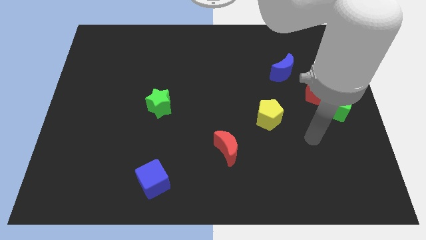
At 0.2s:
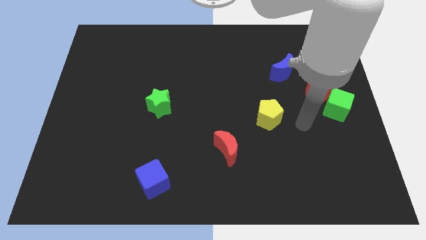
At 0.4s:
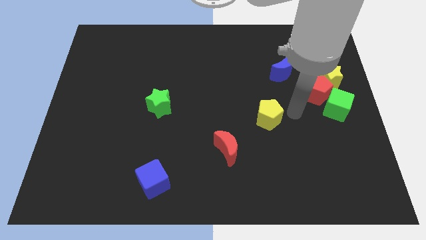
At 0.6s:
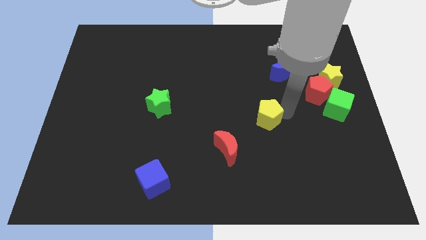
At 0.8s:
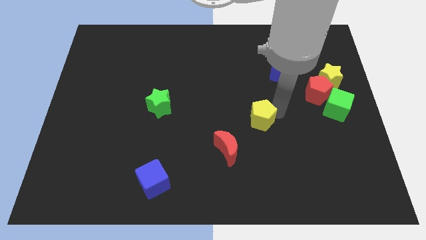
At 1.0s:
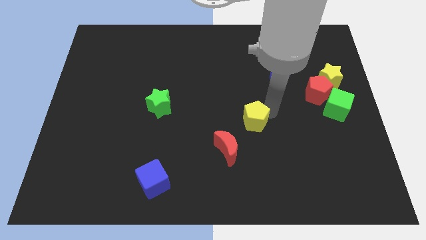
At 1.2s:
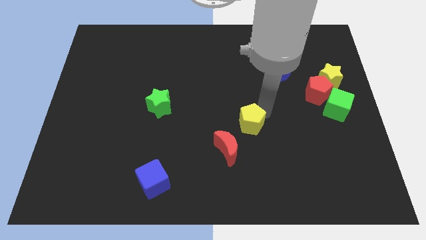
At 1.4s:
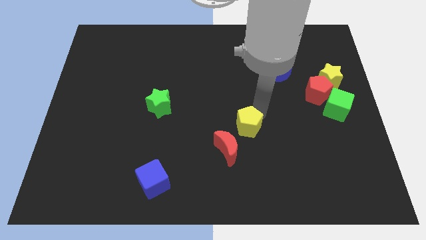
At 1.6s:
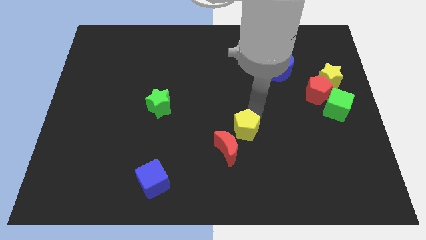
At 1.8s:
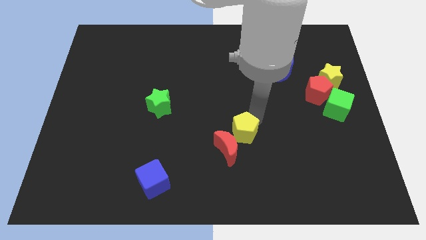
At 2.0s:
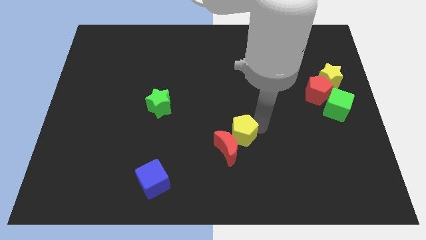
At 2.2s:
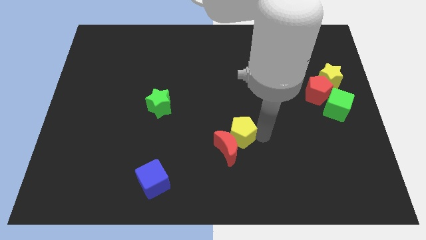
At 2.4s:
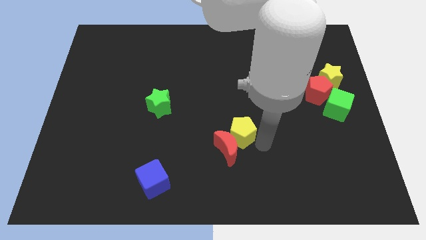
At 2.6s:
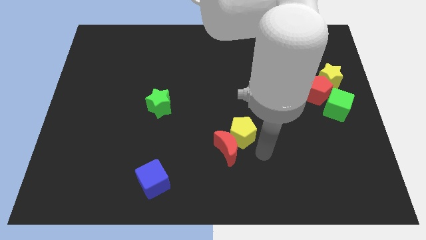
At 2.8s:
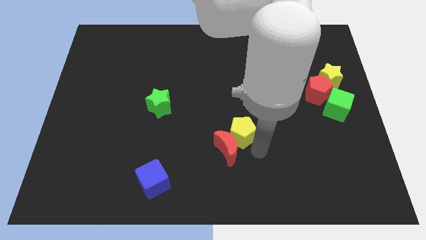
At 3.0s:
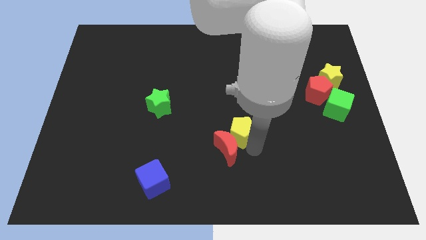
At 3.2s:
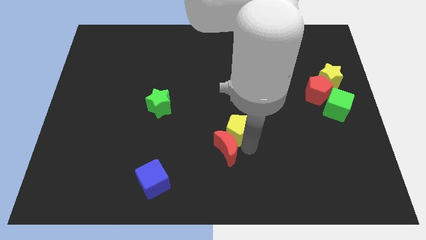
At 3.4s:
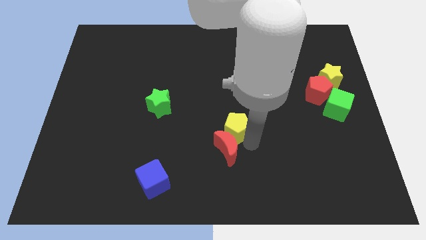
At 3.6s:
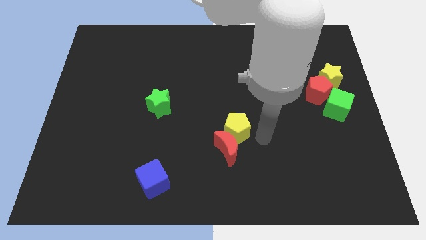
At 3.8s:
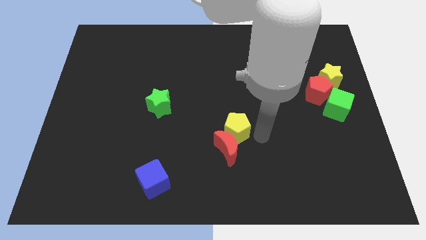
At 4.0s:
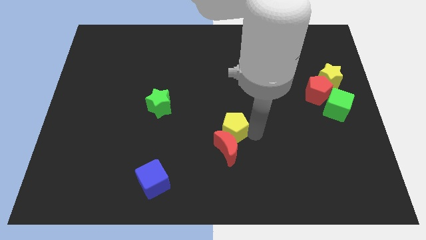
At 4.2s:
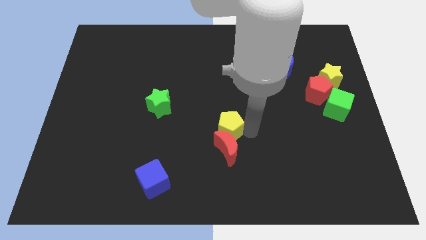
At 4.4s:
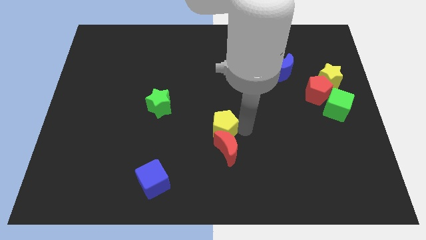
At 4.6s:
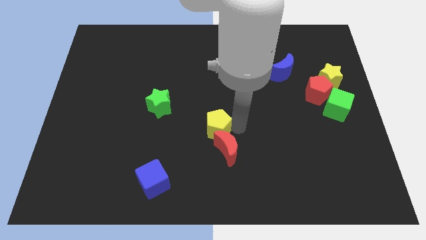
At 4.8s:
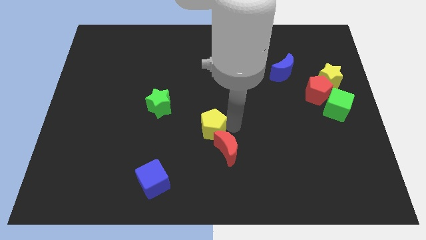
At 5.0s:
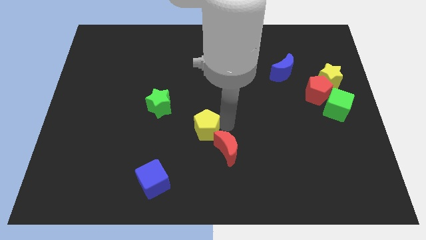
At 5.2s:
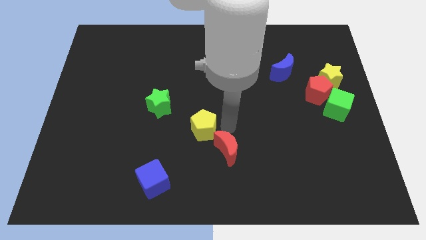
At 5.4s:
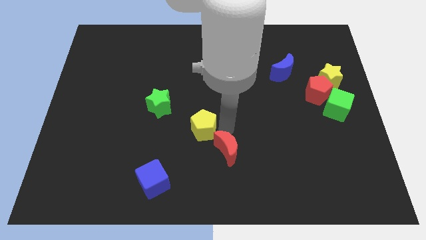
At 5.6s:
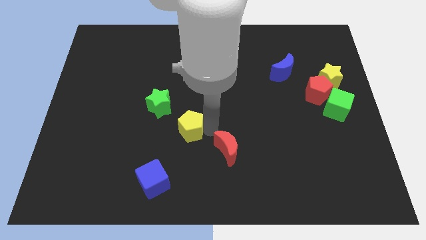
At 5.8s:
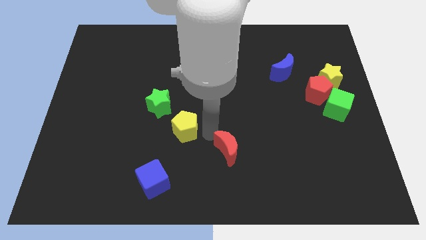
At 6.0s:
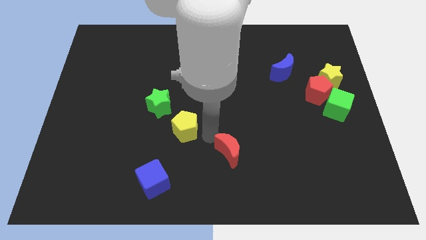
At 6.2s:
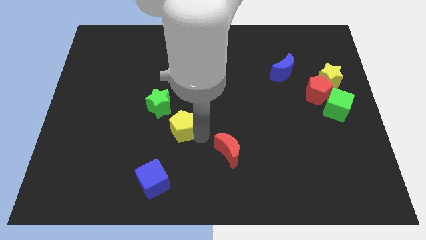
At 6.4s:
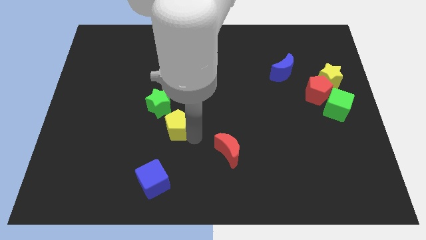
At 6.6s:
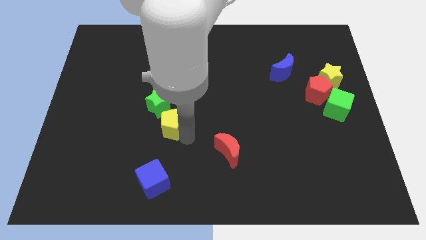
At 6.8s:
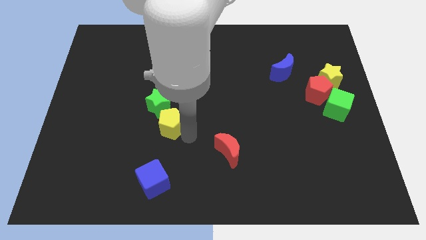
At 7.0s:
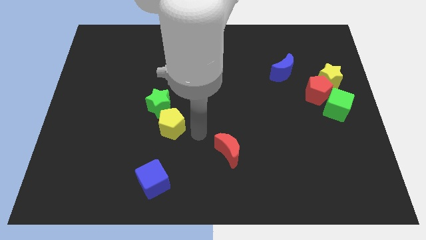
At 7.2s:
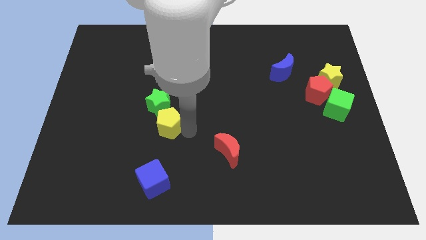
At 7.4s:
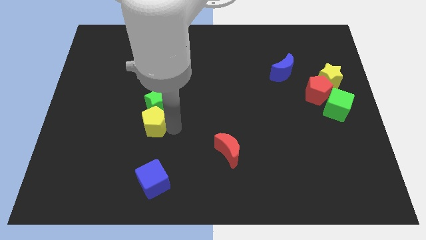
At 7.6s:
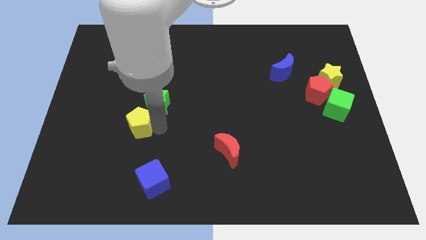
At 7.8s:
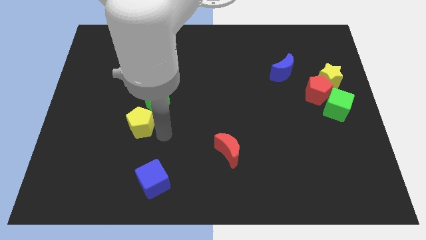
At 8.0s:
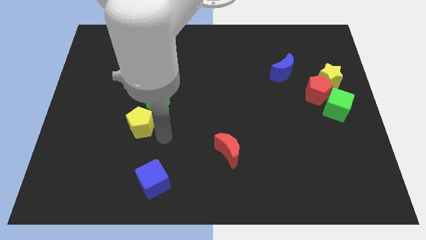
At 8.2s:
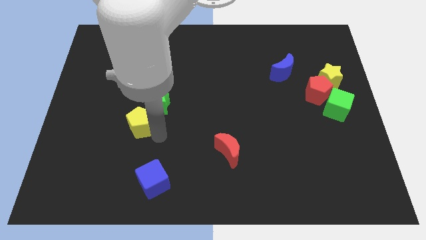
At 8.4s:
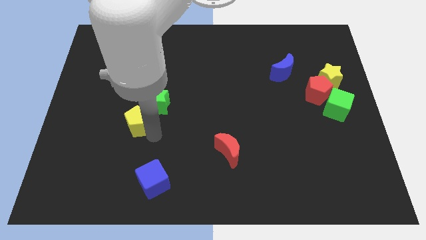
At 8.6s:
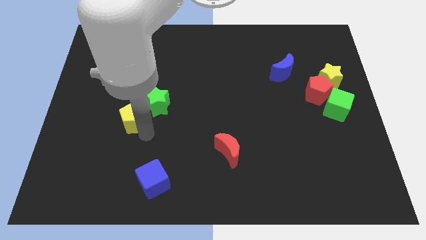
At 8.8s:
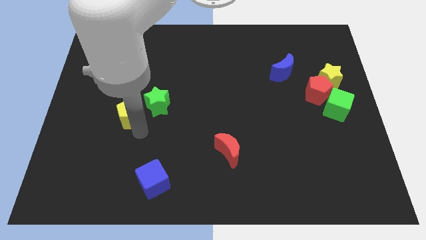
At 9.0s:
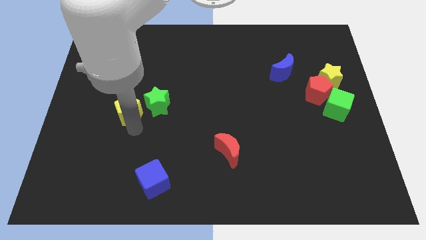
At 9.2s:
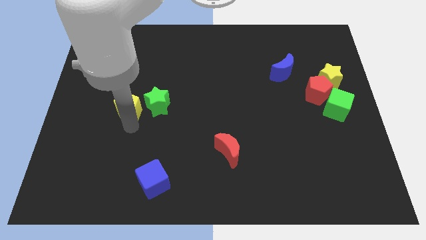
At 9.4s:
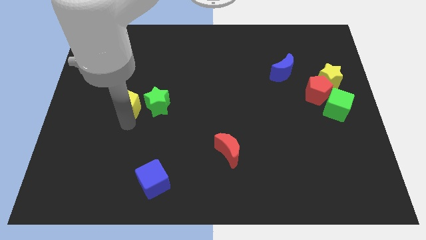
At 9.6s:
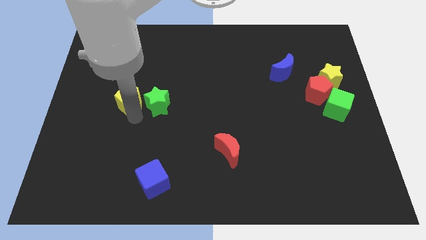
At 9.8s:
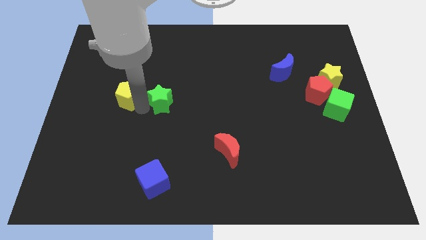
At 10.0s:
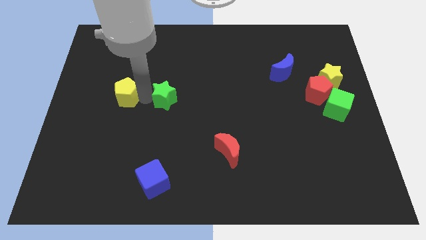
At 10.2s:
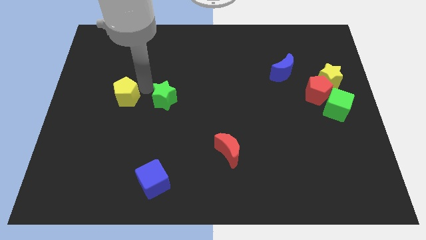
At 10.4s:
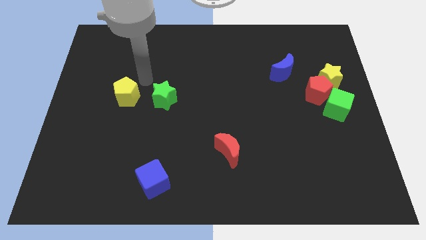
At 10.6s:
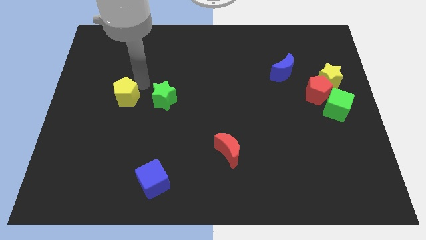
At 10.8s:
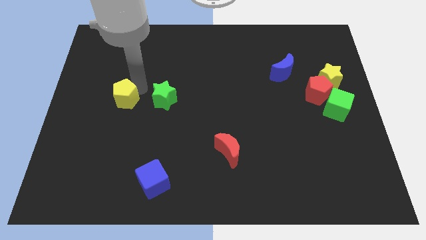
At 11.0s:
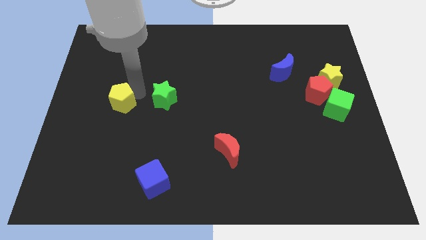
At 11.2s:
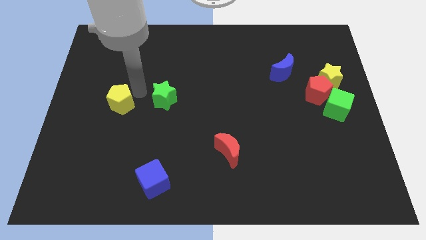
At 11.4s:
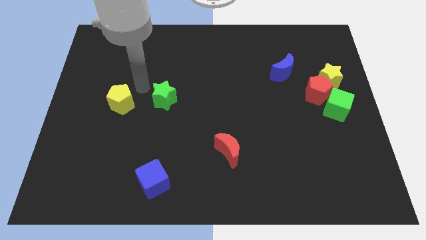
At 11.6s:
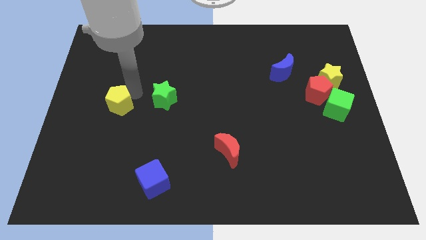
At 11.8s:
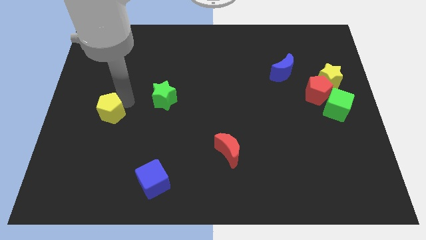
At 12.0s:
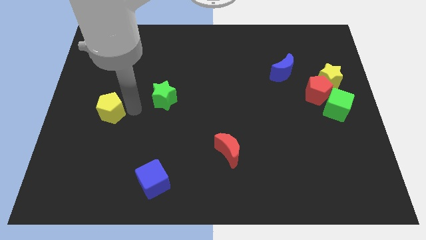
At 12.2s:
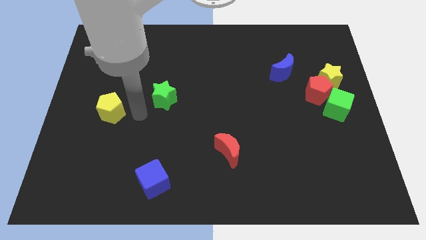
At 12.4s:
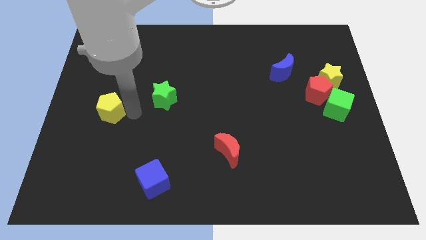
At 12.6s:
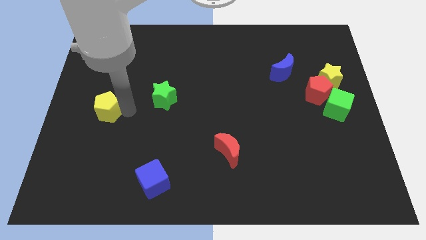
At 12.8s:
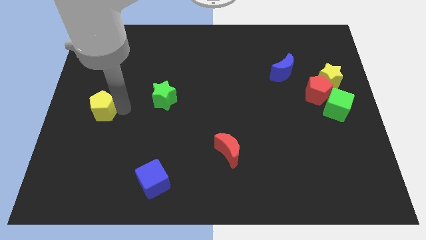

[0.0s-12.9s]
push the yellow pentagon to the left side of the board
